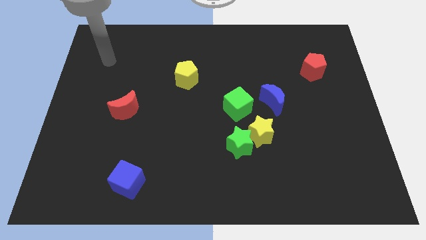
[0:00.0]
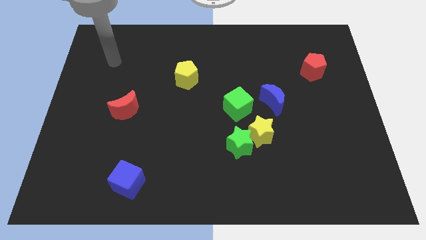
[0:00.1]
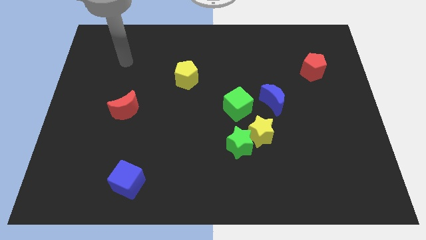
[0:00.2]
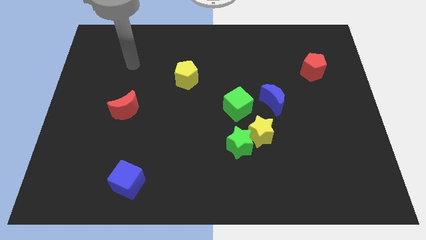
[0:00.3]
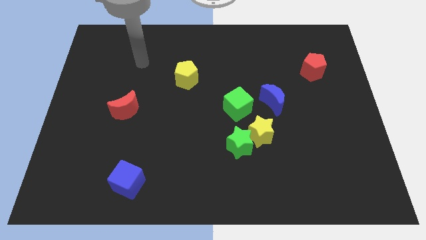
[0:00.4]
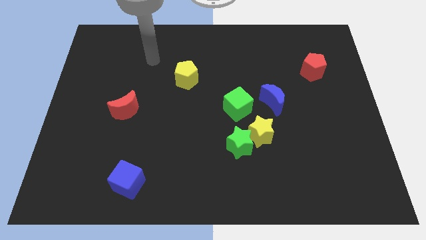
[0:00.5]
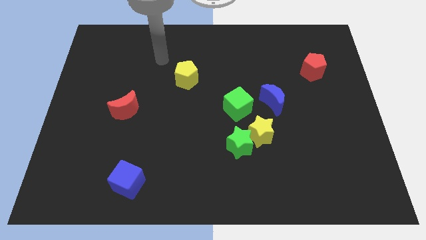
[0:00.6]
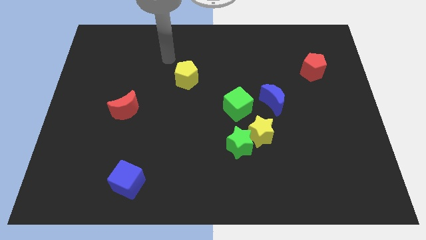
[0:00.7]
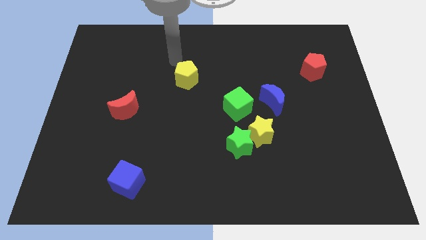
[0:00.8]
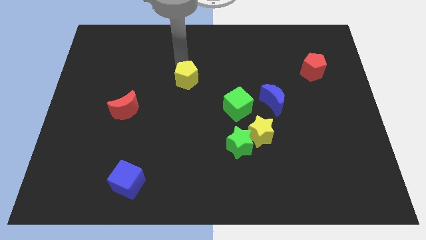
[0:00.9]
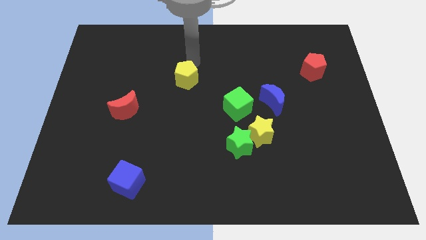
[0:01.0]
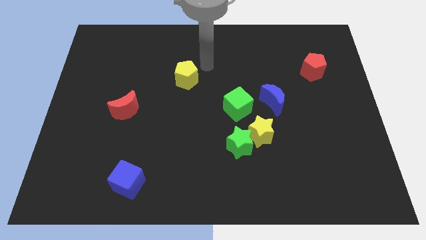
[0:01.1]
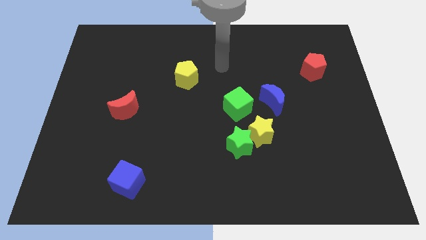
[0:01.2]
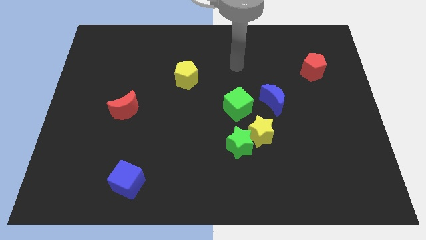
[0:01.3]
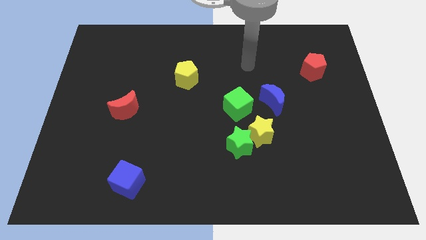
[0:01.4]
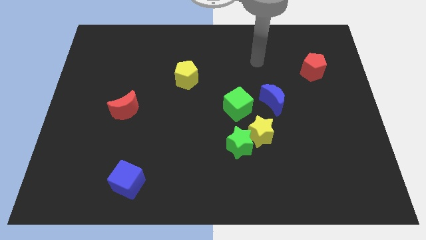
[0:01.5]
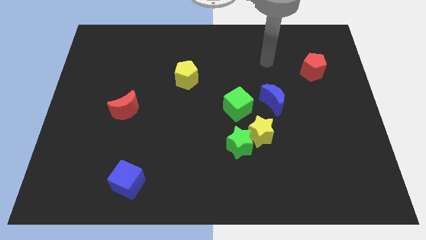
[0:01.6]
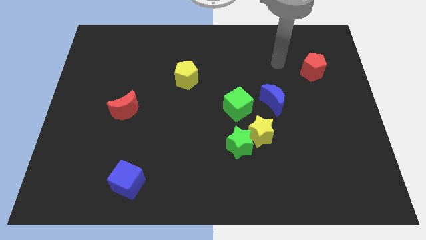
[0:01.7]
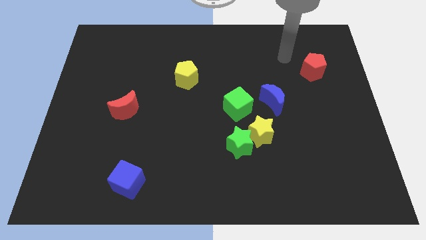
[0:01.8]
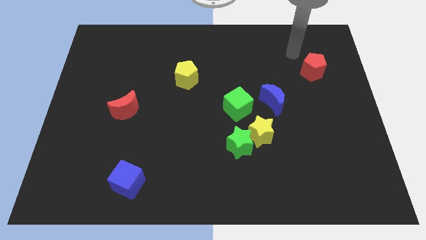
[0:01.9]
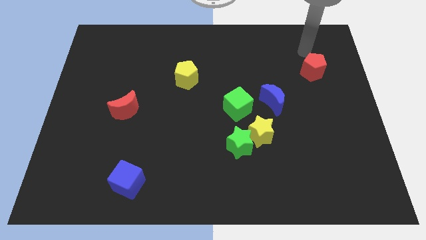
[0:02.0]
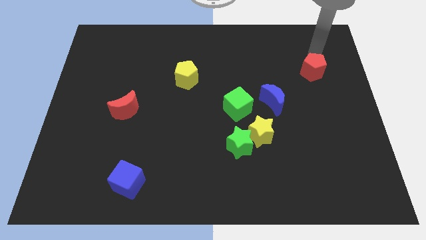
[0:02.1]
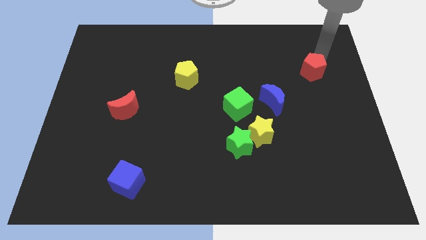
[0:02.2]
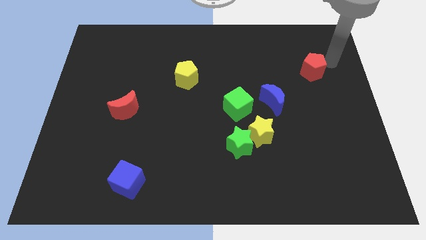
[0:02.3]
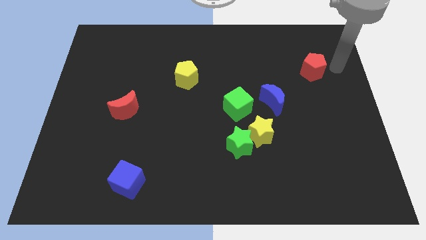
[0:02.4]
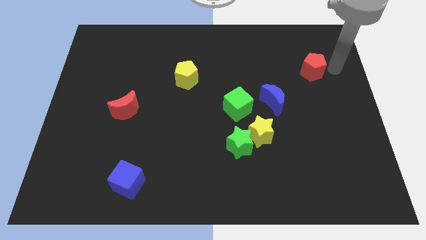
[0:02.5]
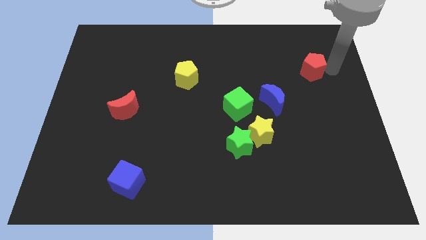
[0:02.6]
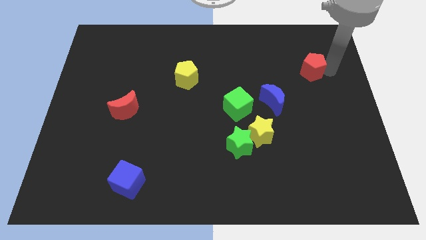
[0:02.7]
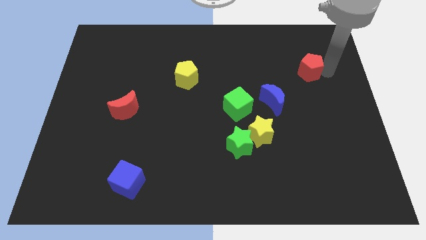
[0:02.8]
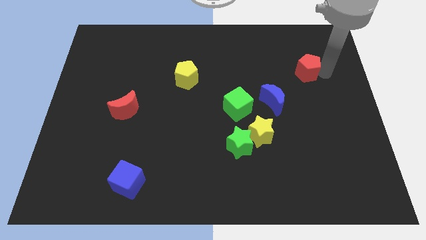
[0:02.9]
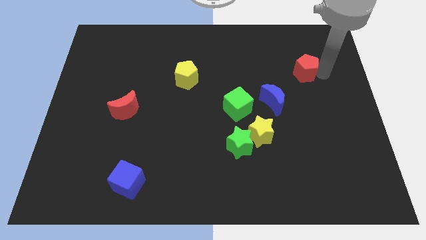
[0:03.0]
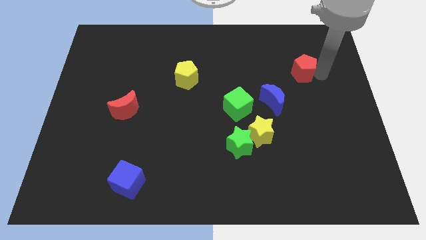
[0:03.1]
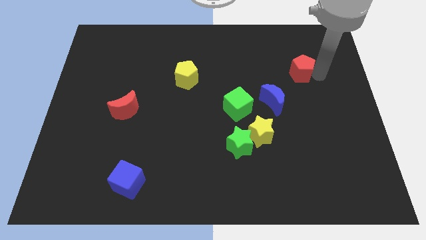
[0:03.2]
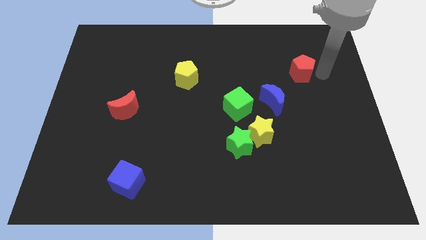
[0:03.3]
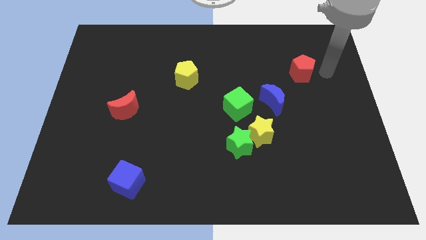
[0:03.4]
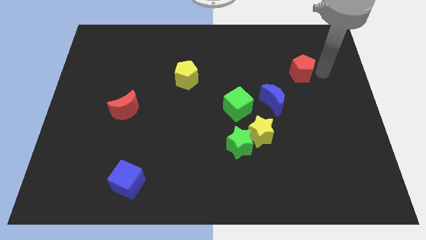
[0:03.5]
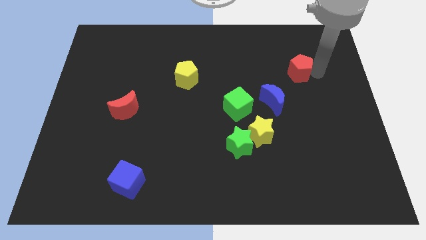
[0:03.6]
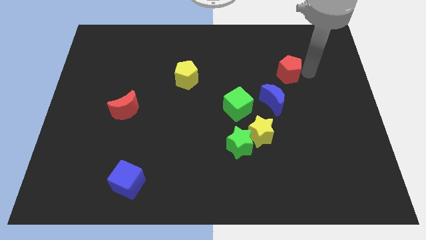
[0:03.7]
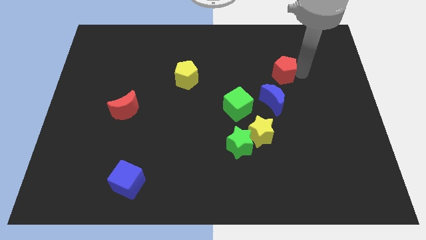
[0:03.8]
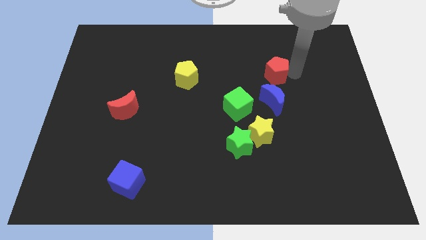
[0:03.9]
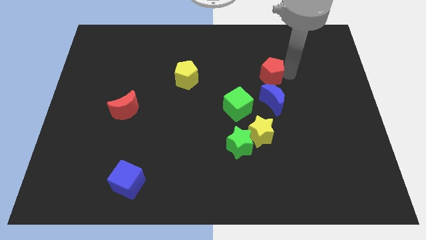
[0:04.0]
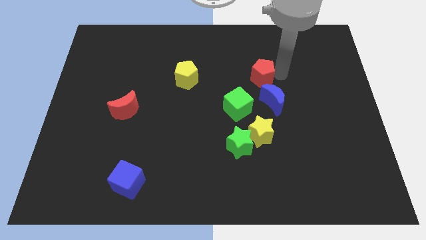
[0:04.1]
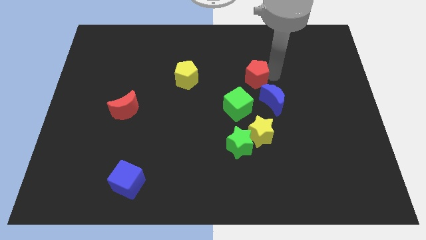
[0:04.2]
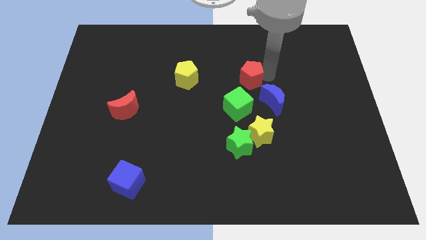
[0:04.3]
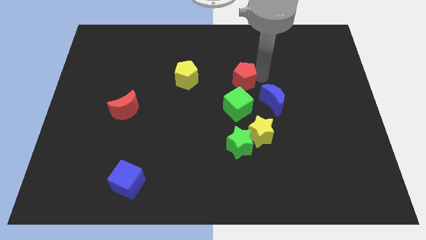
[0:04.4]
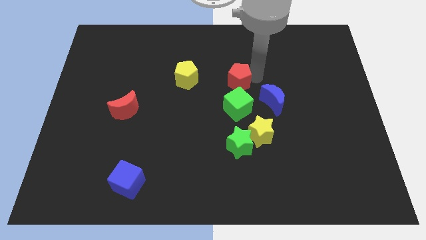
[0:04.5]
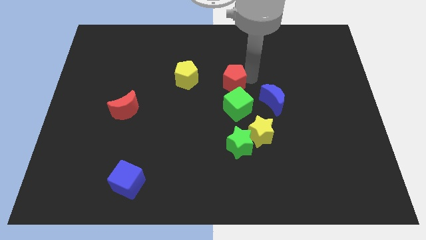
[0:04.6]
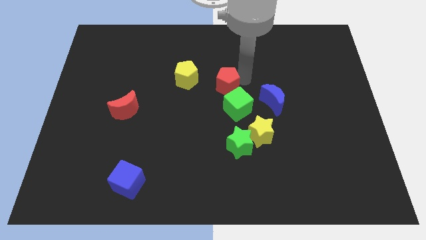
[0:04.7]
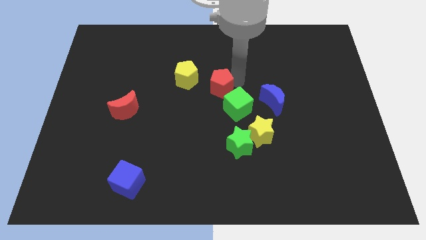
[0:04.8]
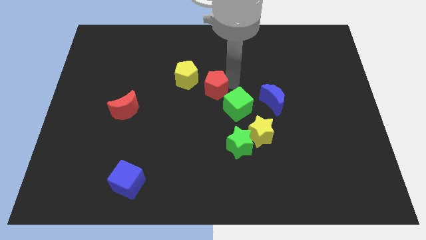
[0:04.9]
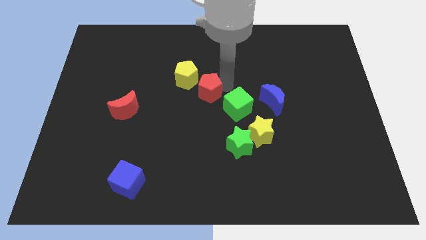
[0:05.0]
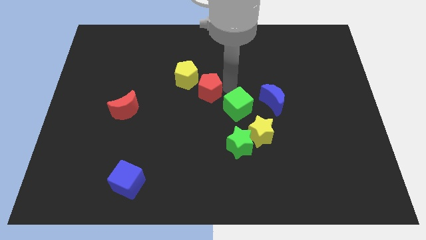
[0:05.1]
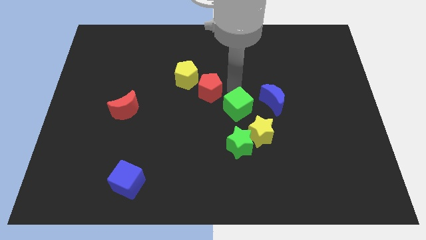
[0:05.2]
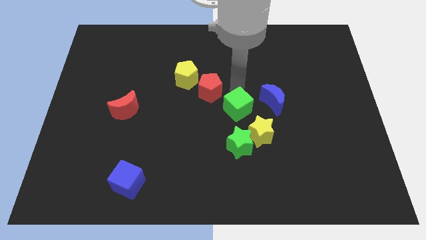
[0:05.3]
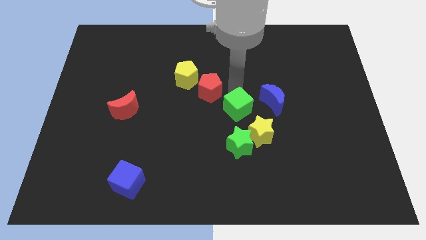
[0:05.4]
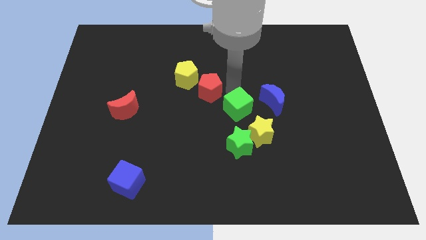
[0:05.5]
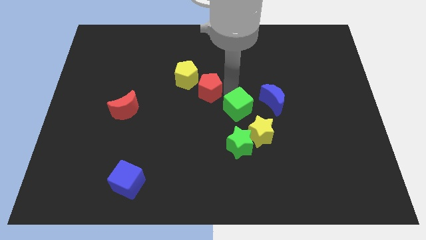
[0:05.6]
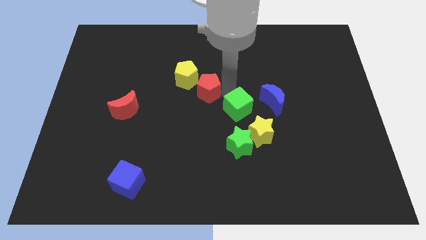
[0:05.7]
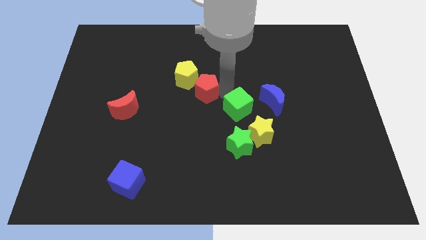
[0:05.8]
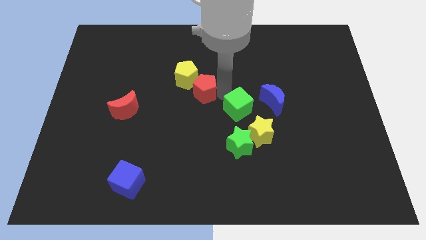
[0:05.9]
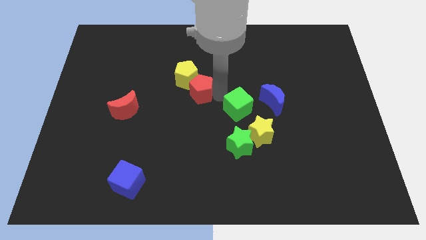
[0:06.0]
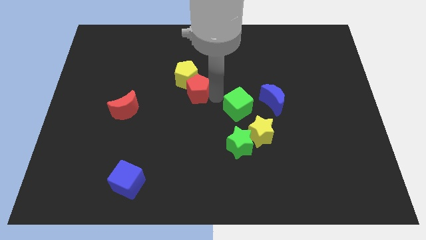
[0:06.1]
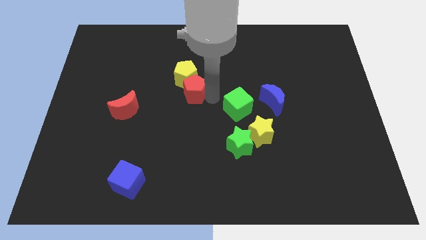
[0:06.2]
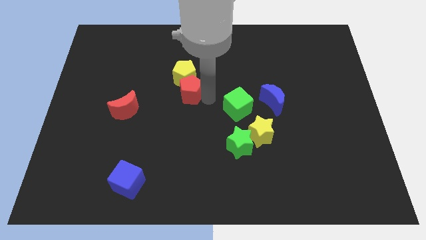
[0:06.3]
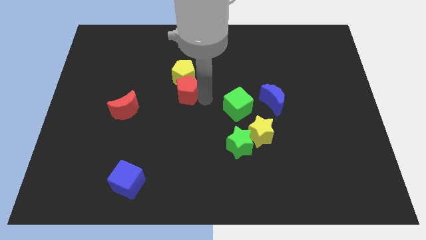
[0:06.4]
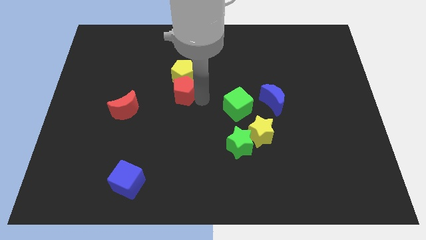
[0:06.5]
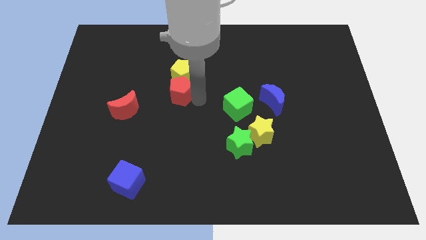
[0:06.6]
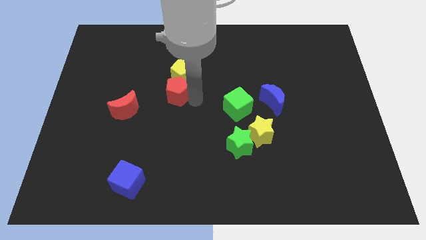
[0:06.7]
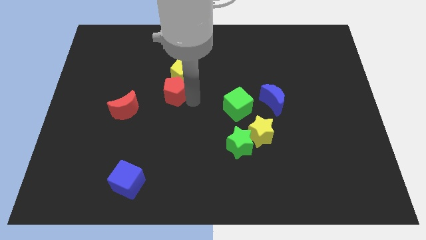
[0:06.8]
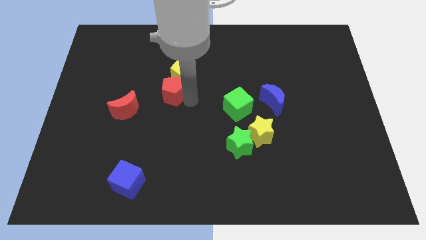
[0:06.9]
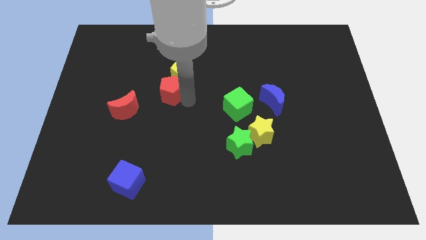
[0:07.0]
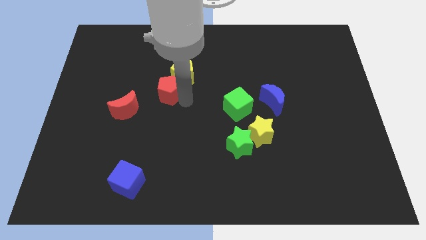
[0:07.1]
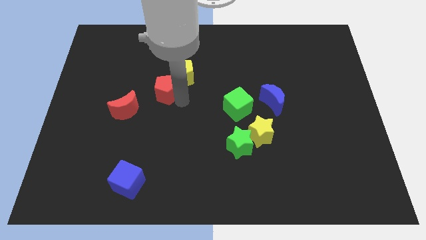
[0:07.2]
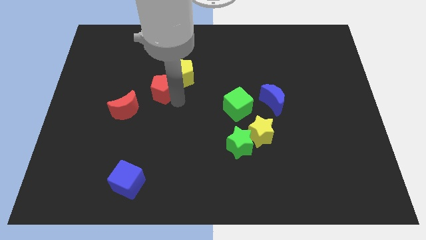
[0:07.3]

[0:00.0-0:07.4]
slide the red pentagon just left of the yellow pentagon
